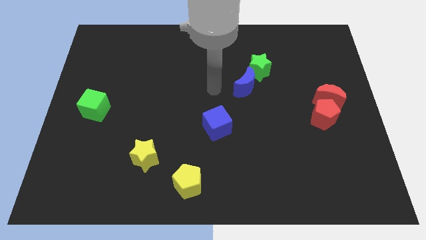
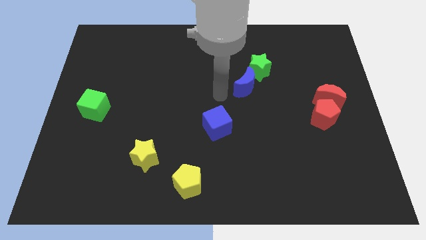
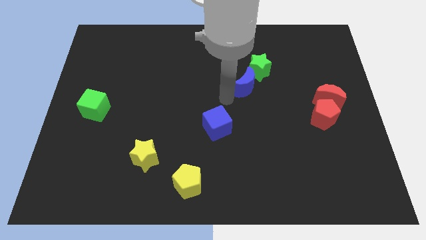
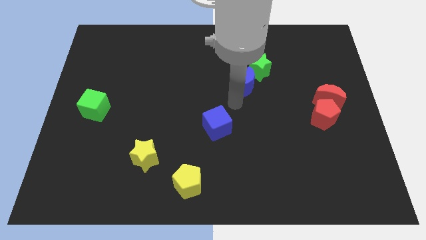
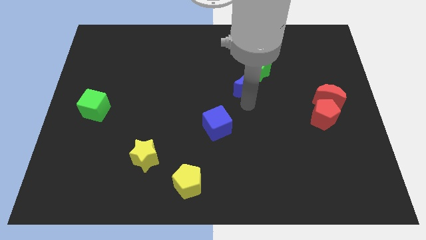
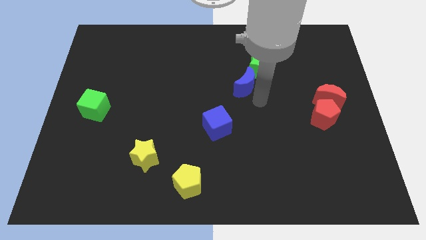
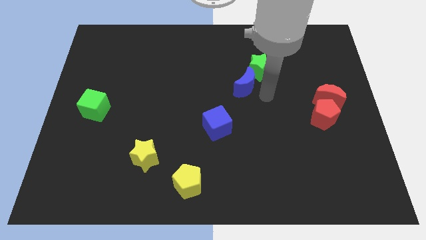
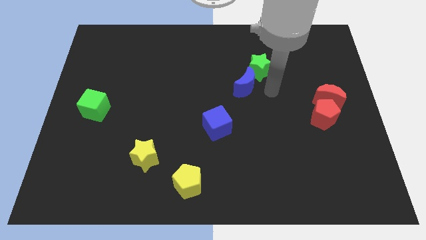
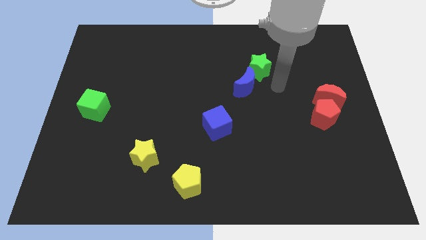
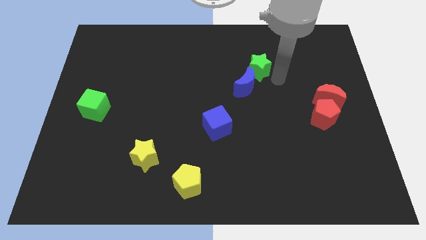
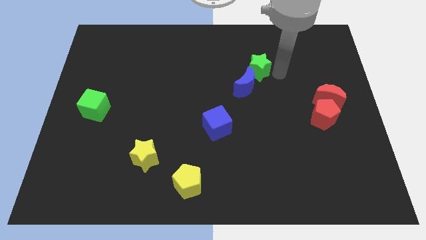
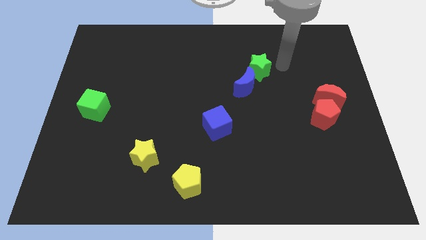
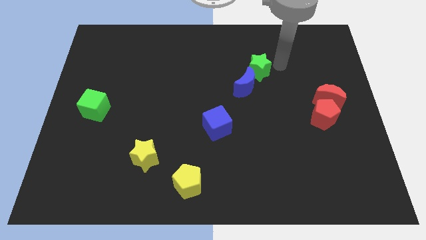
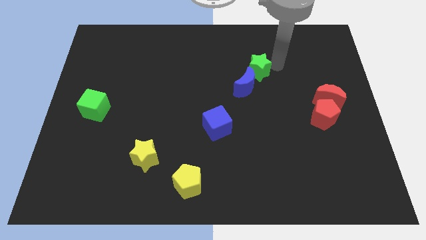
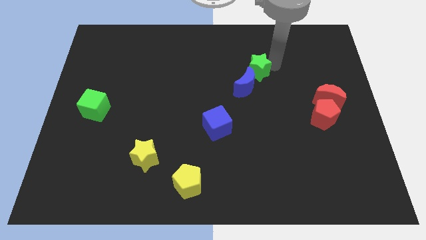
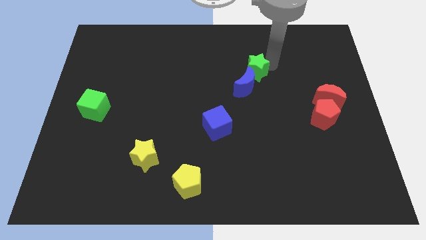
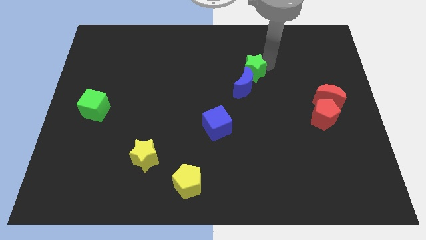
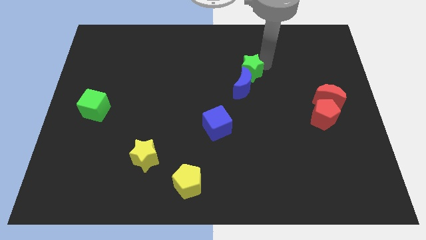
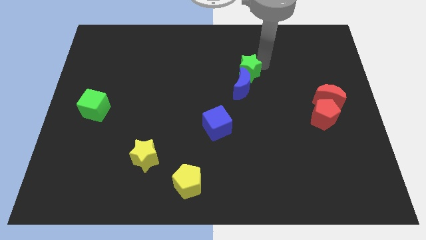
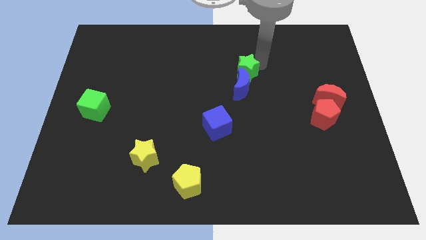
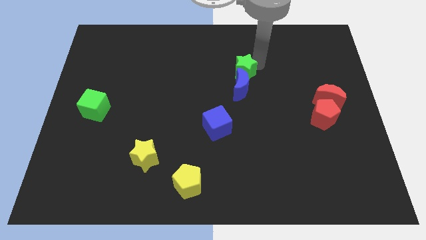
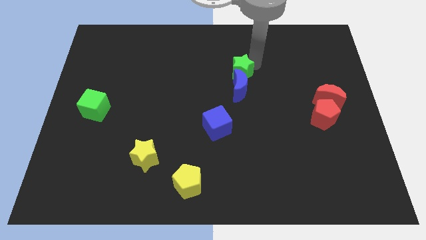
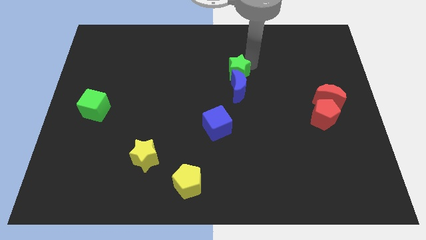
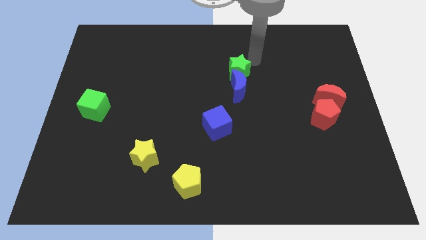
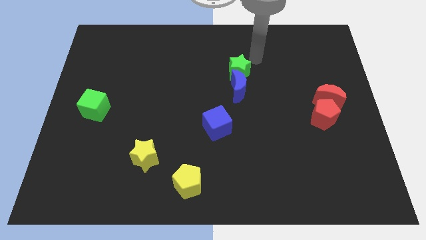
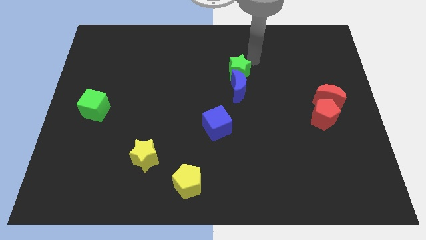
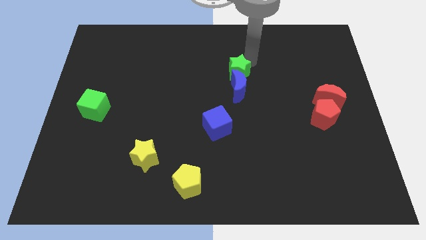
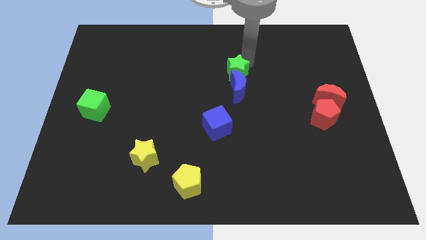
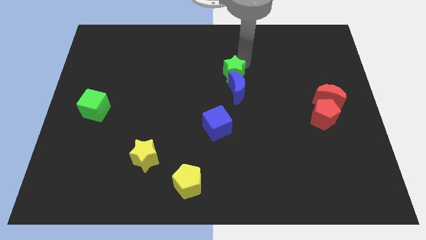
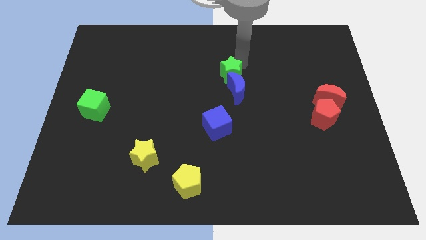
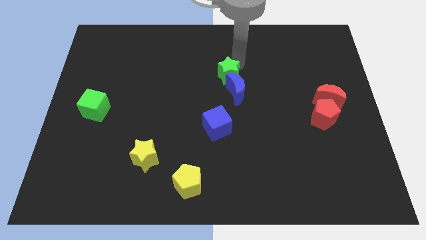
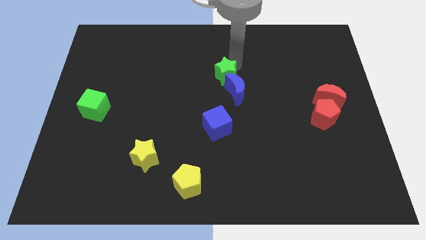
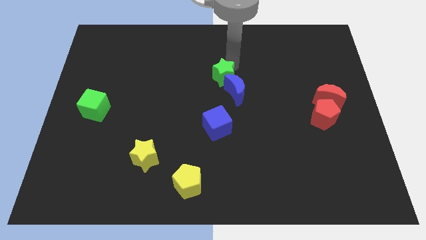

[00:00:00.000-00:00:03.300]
slightly move the green star diagonally down and to the left

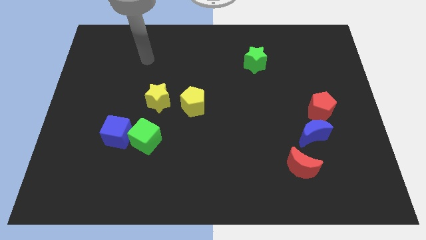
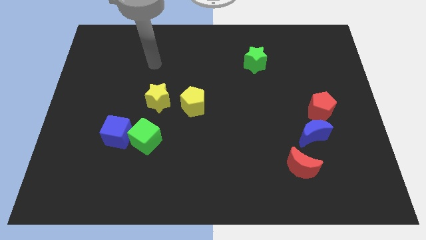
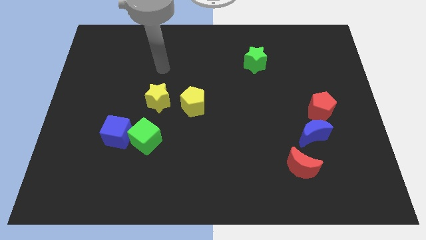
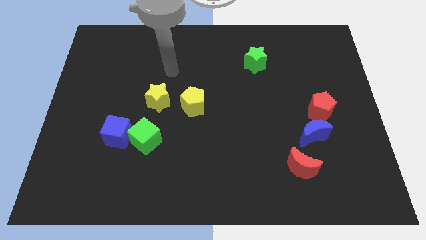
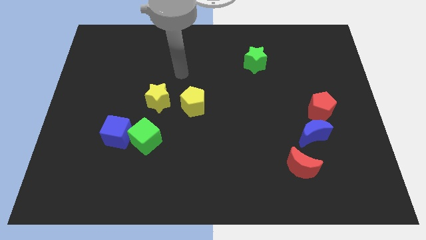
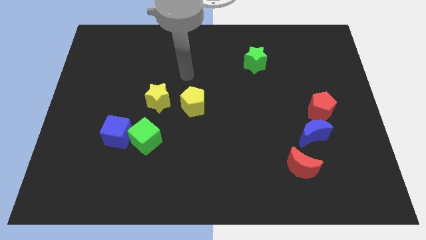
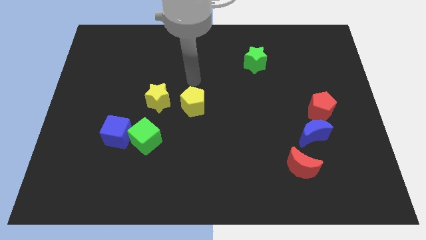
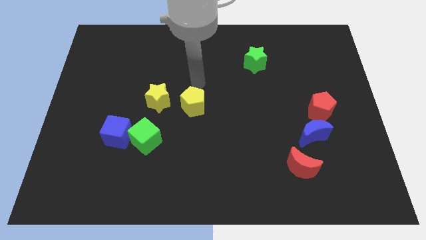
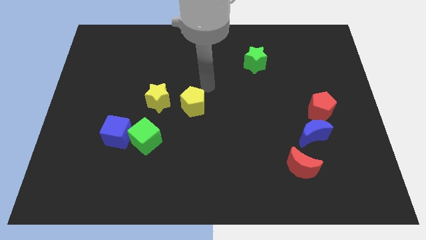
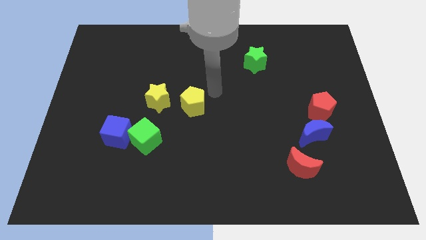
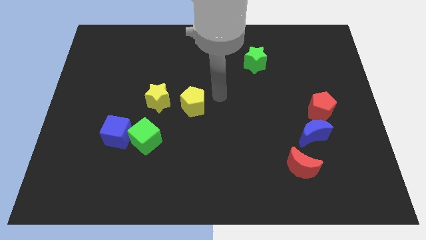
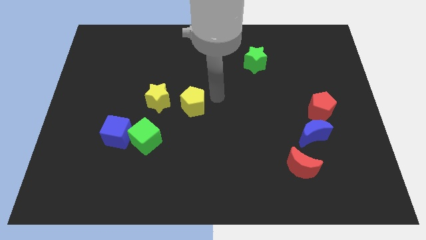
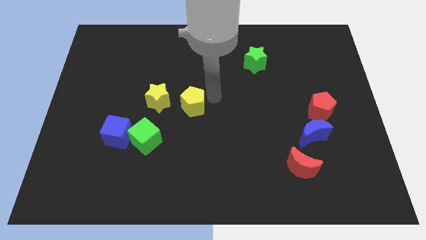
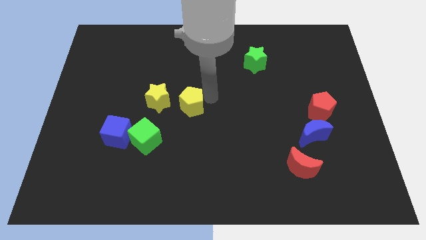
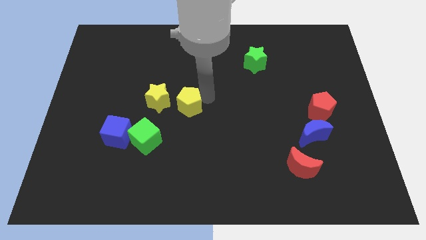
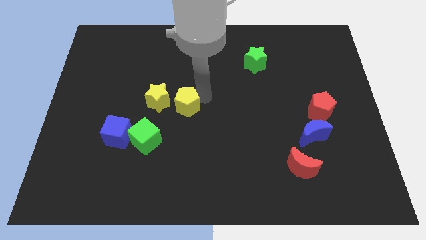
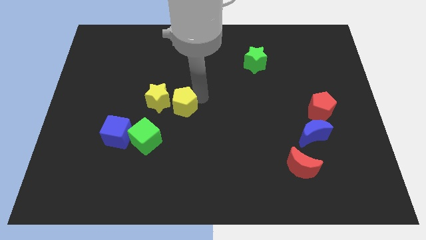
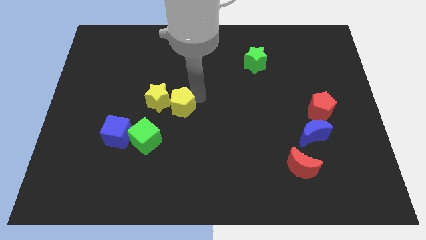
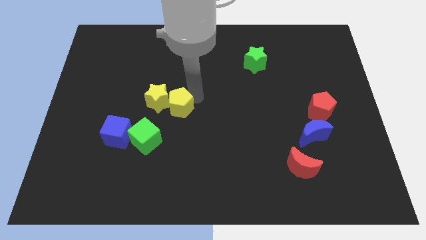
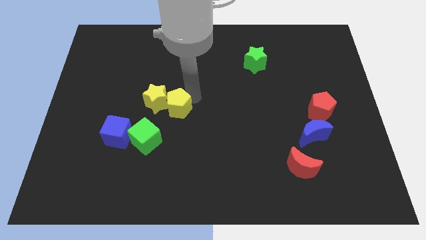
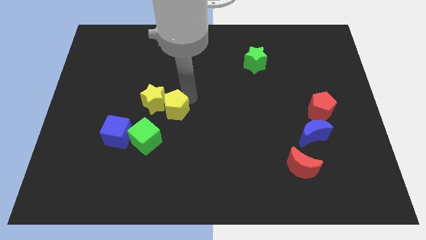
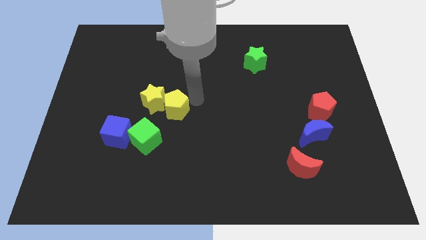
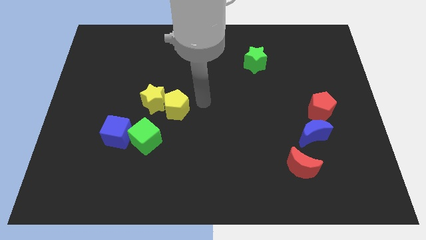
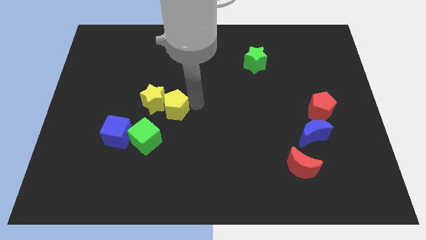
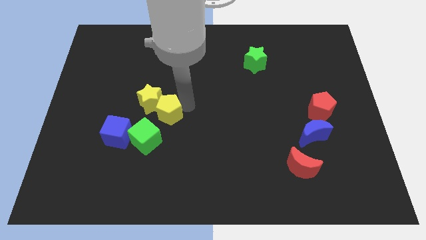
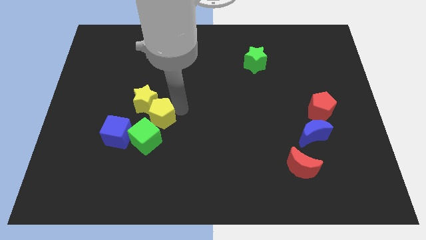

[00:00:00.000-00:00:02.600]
move the yellow pentagon to the left a little

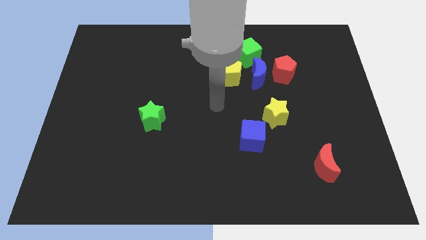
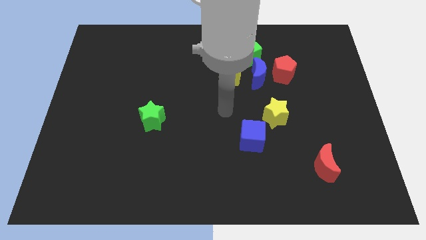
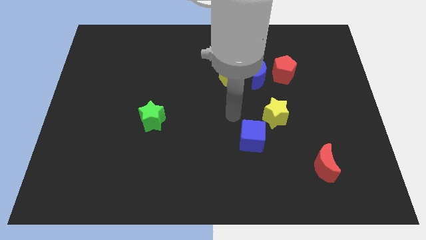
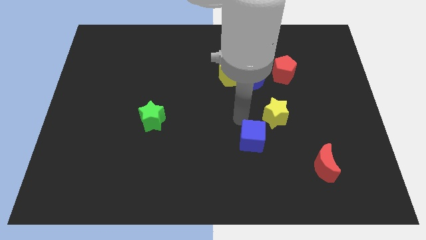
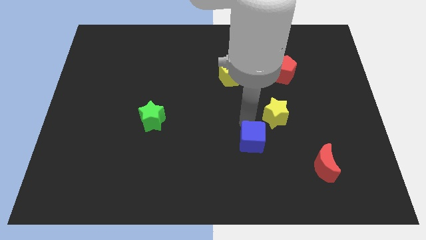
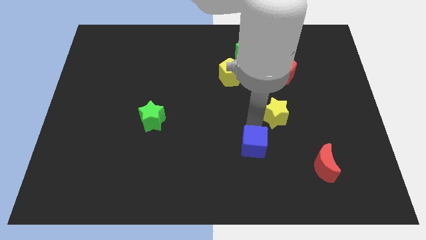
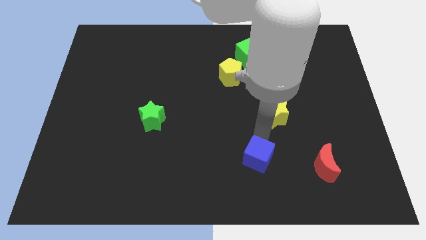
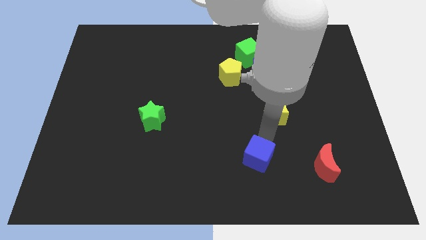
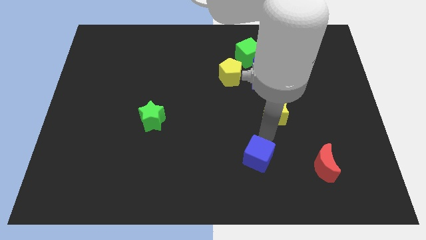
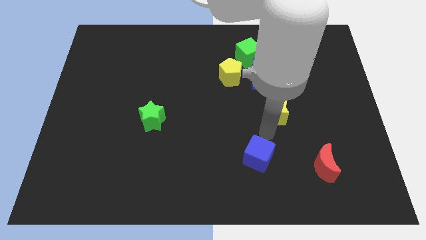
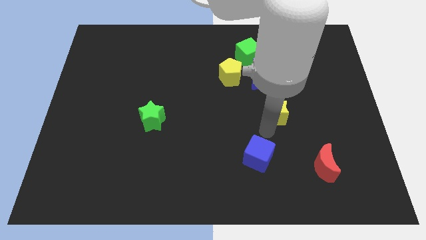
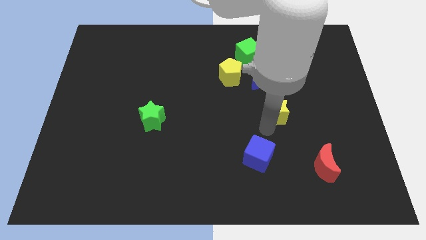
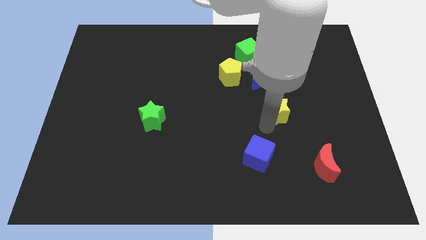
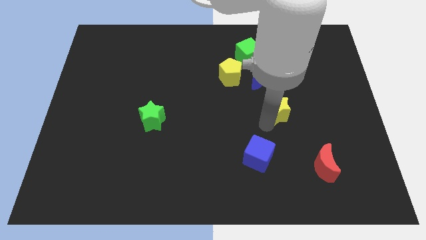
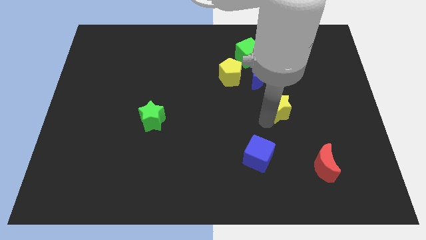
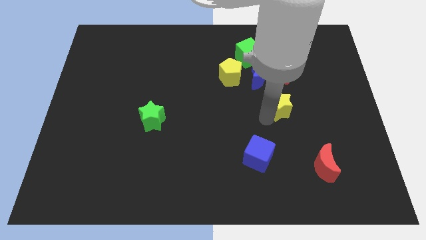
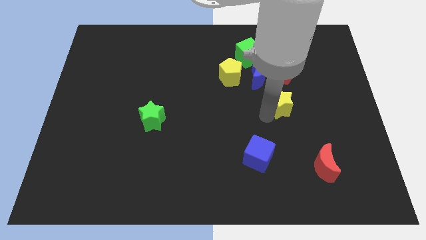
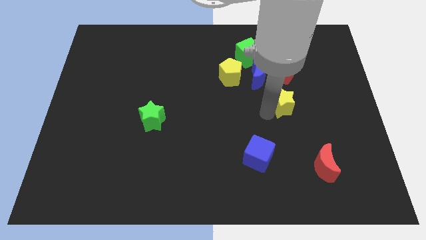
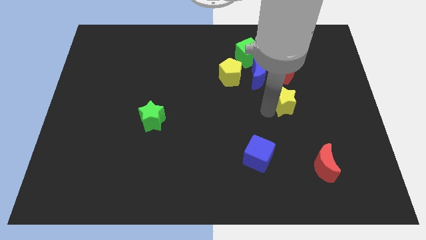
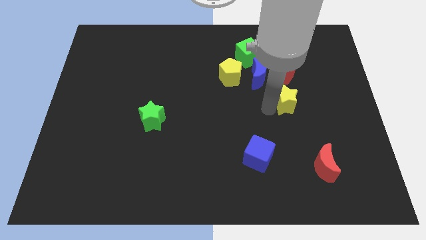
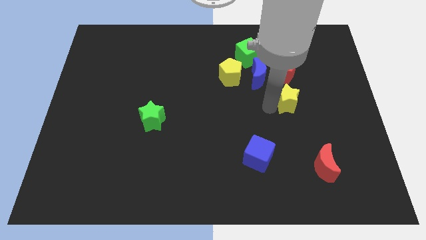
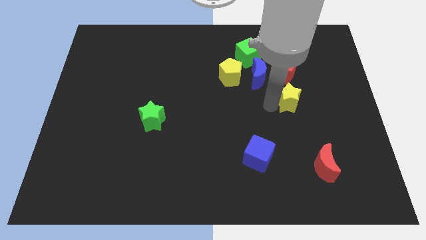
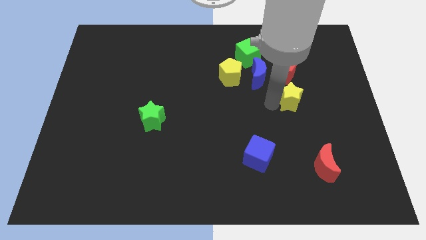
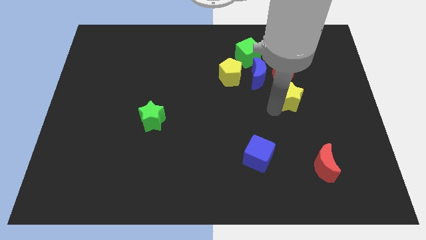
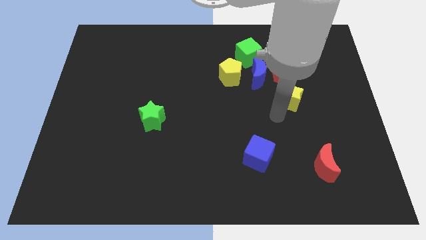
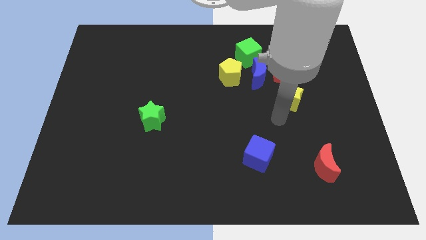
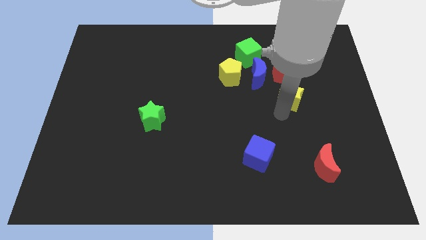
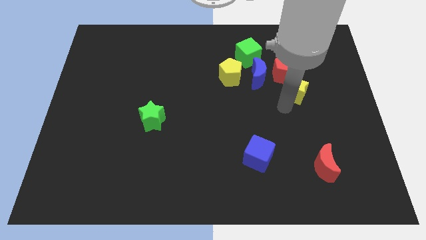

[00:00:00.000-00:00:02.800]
slightly push the yellow star up and then to the right
